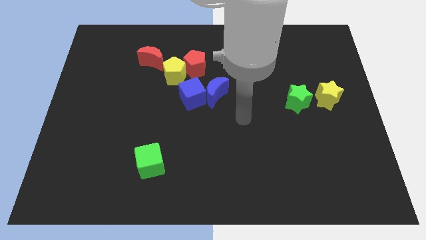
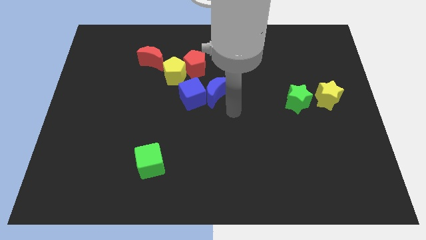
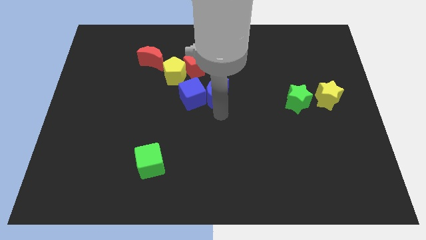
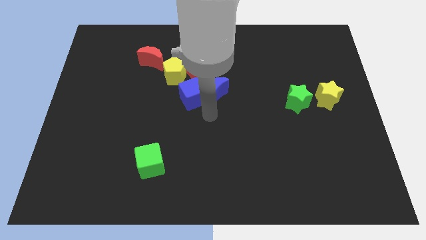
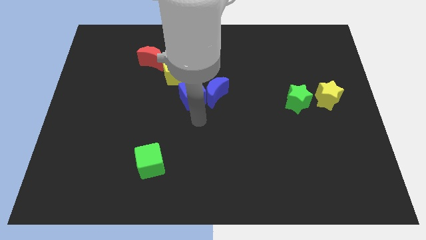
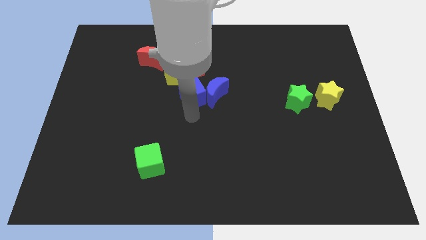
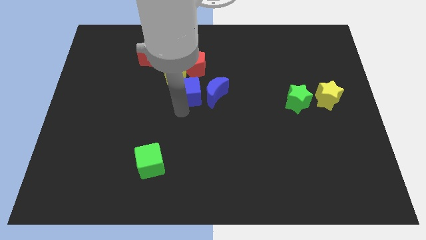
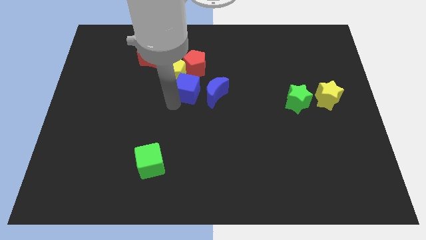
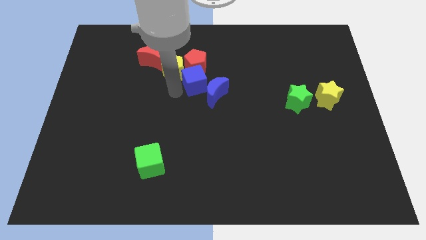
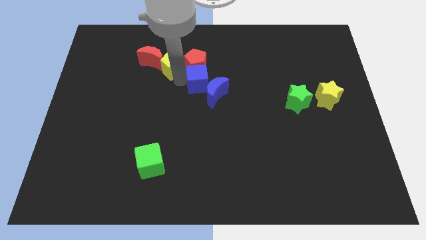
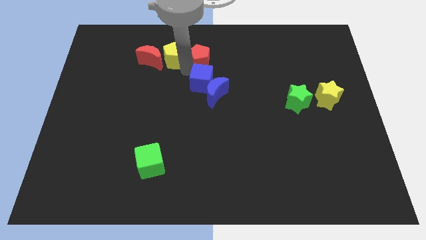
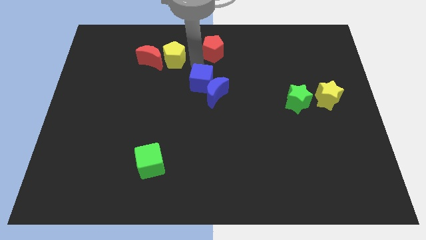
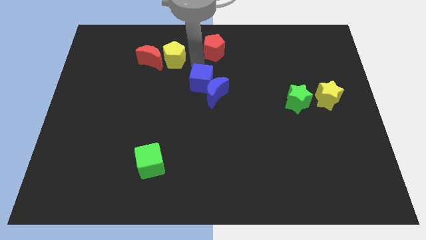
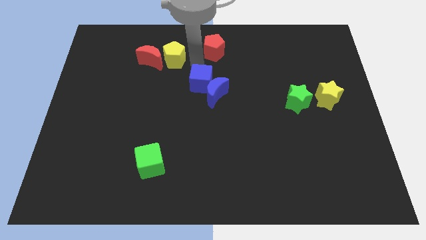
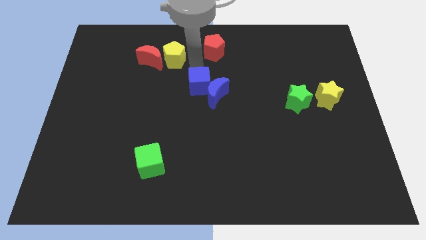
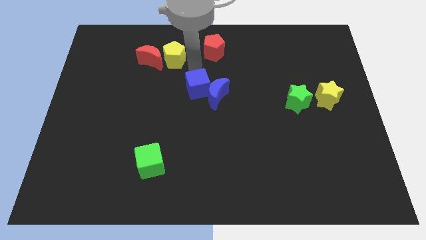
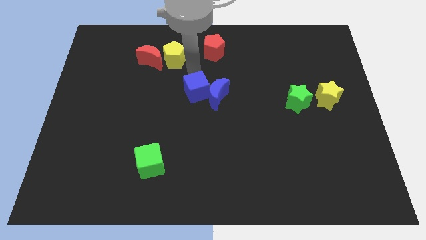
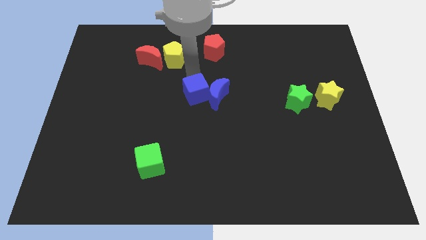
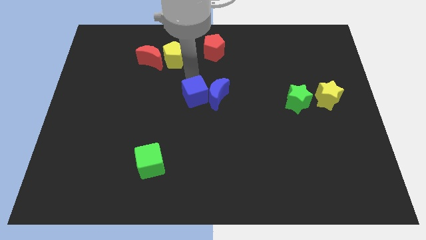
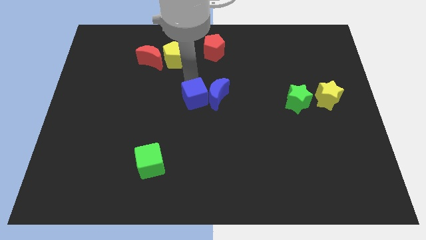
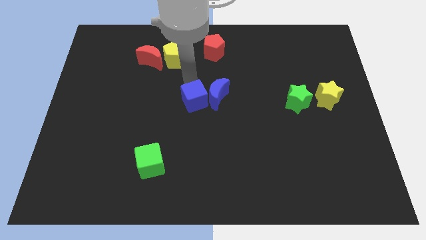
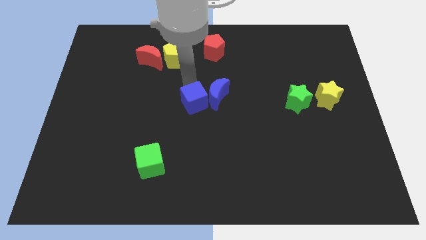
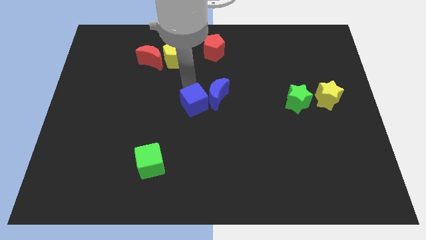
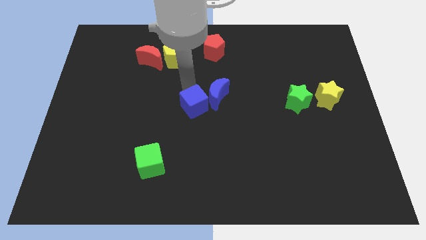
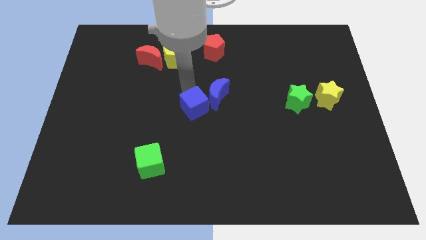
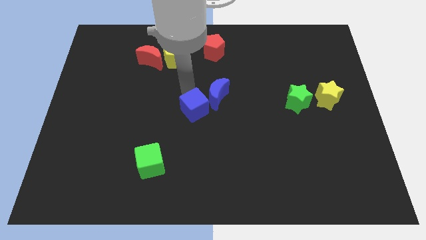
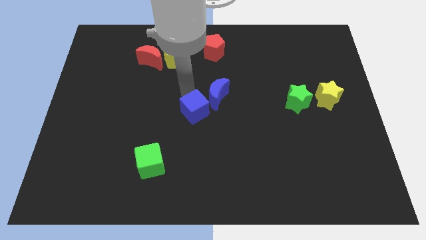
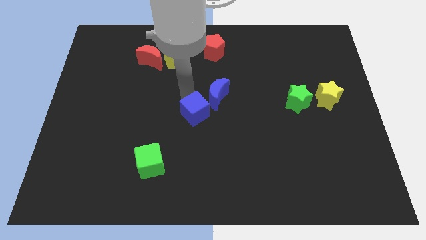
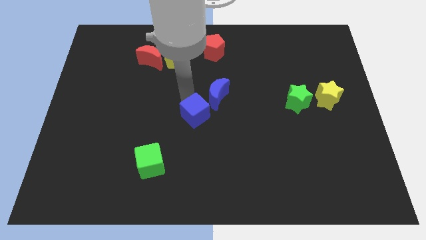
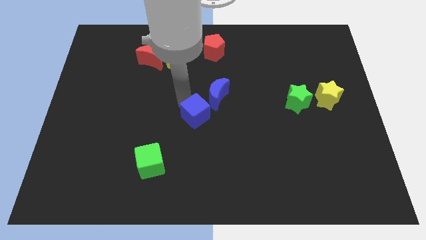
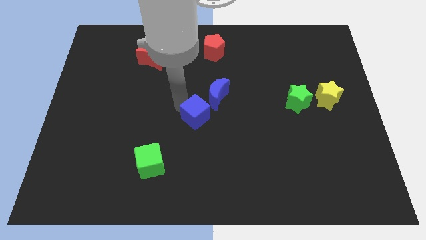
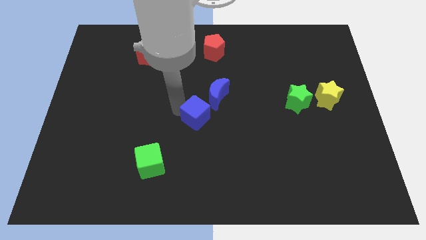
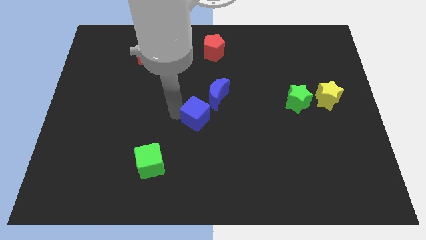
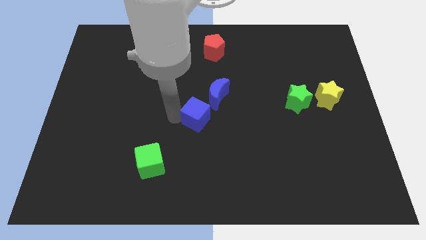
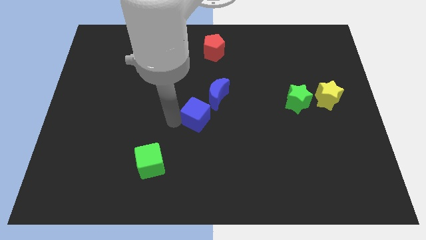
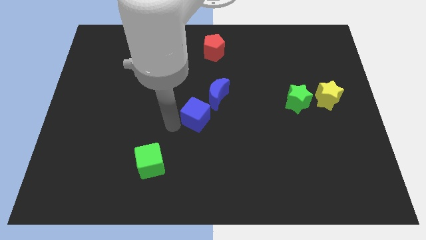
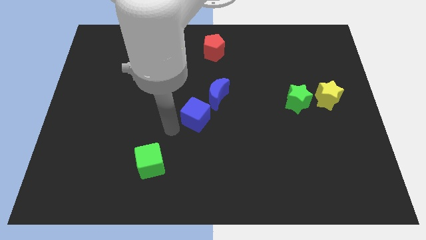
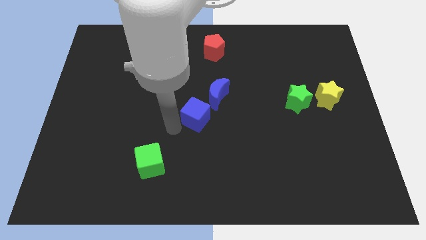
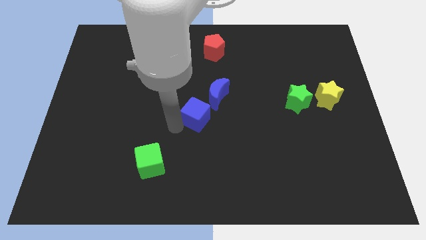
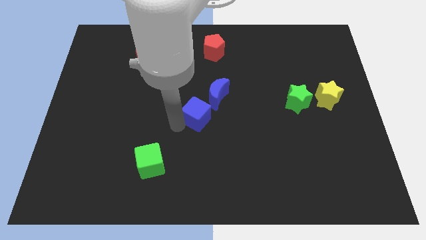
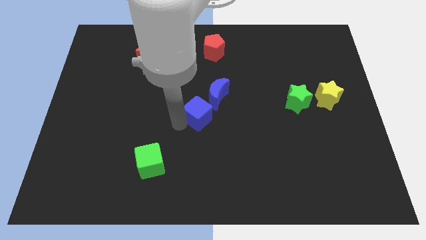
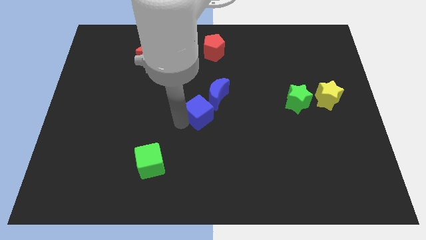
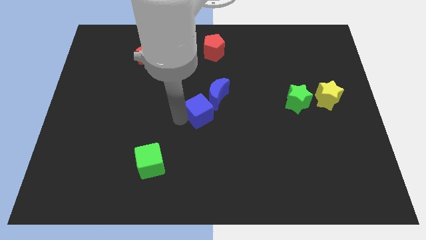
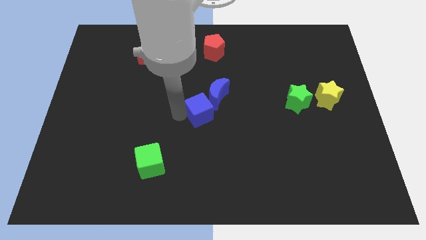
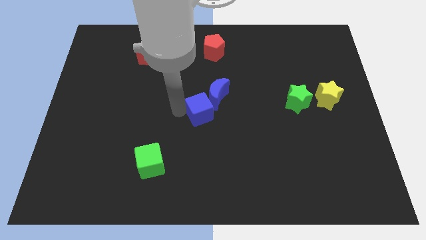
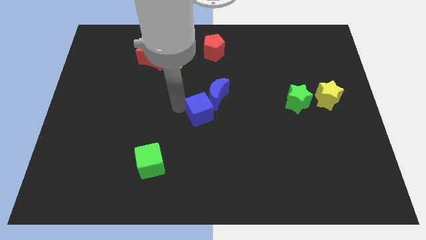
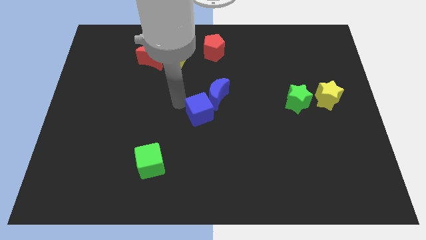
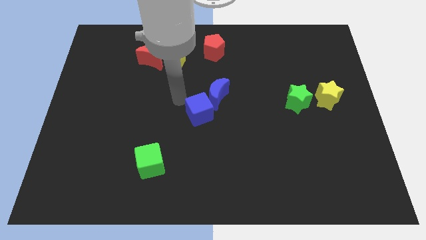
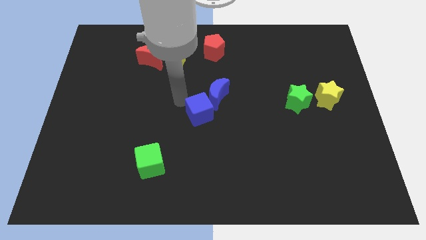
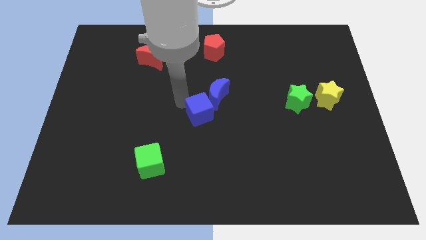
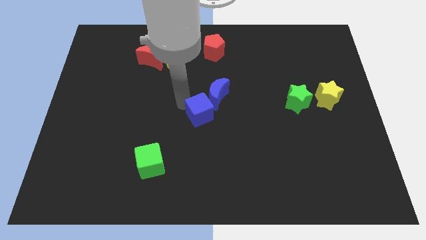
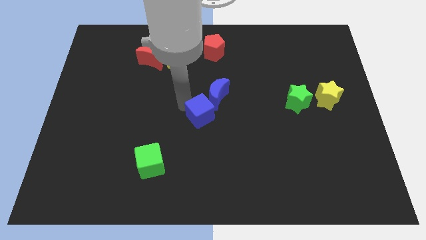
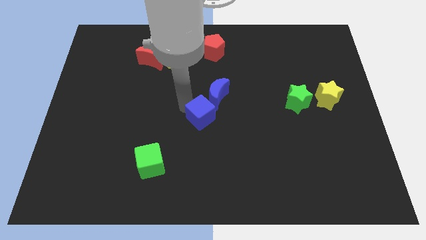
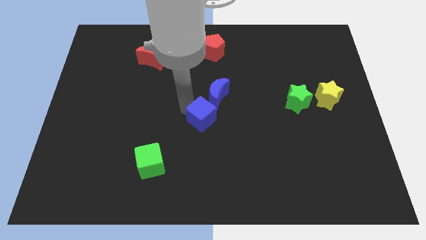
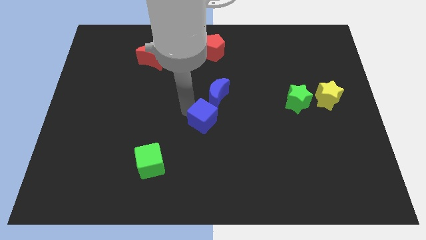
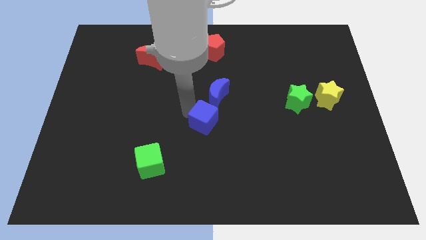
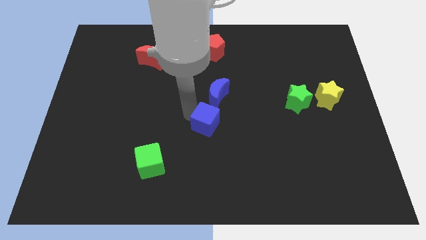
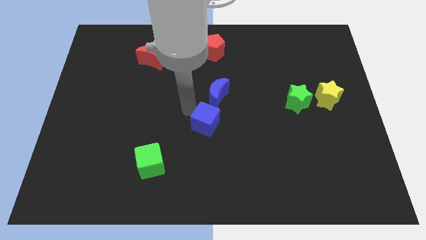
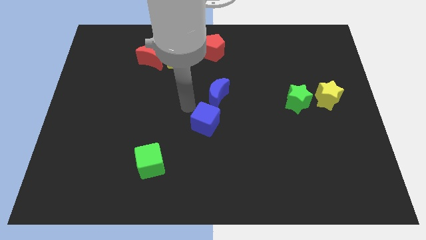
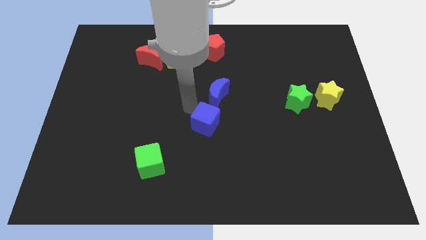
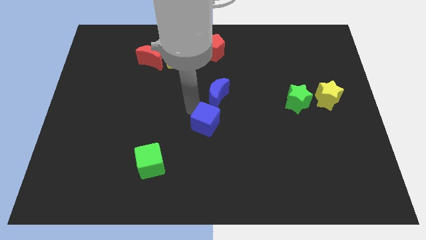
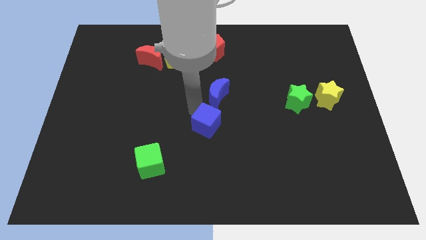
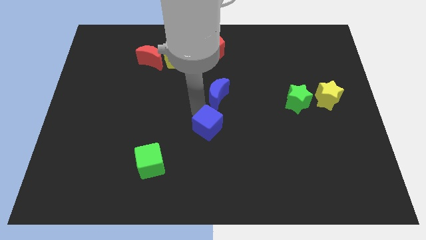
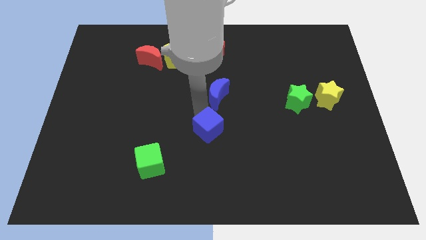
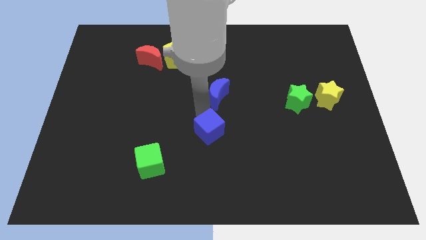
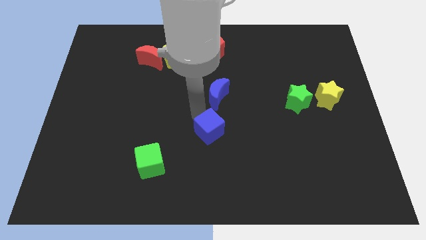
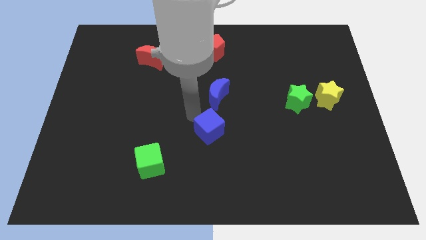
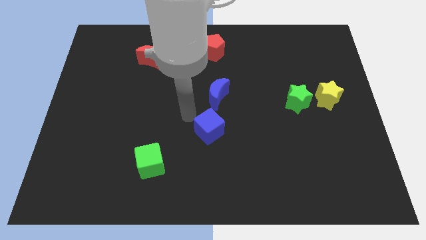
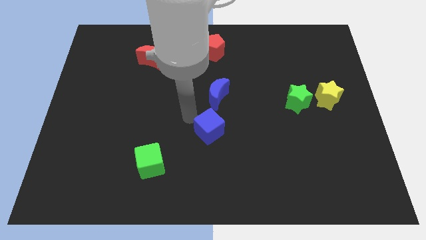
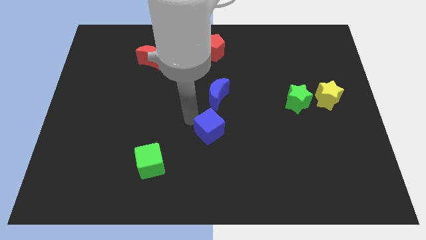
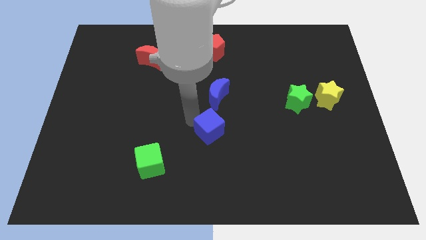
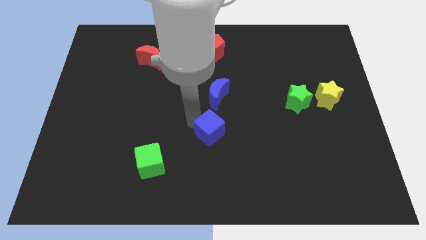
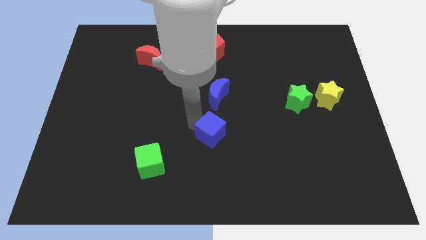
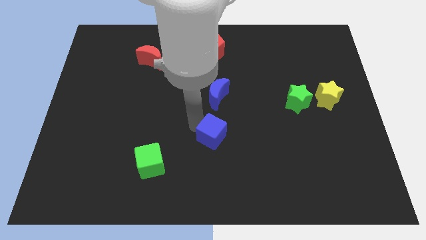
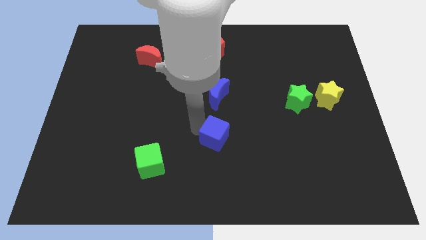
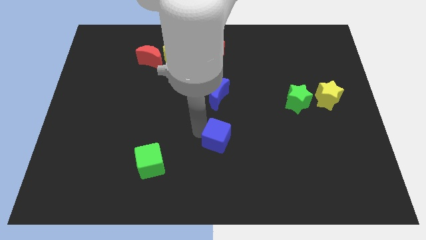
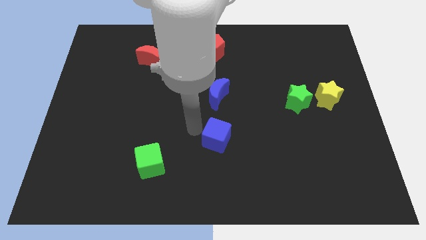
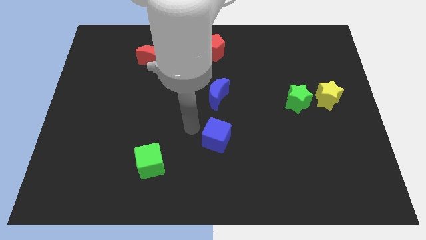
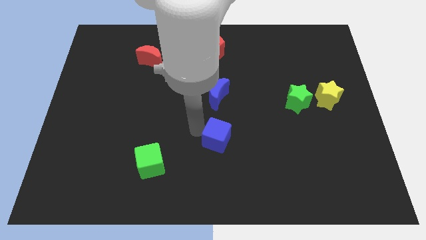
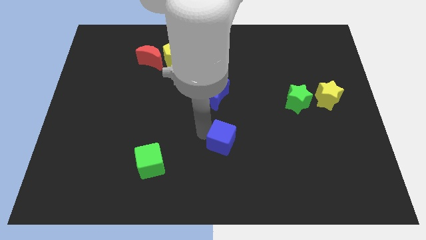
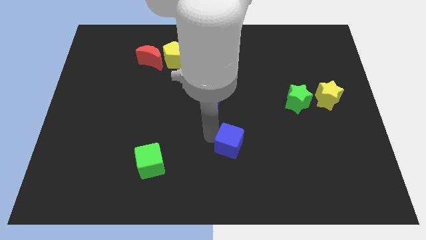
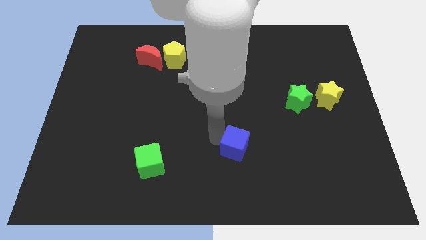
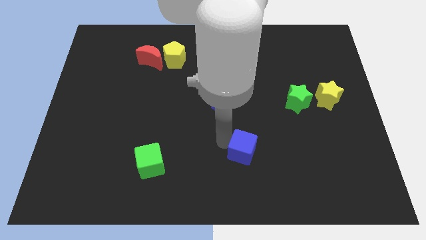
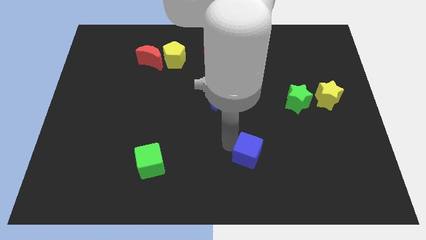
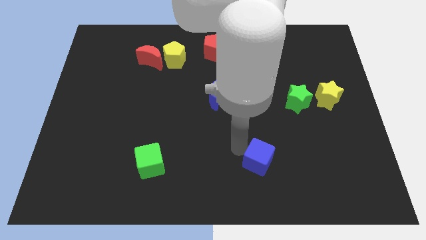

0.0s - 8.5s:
push the blue cube downwards and to the right diagonally
